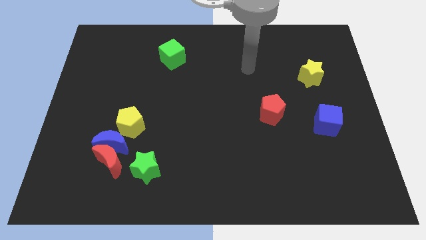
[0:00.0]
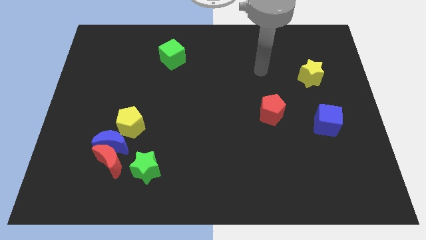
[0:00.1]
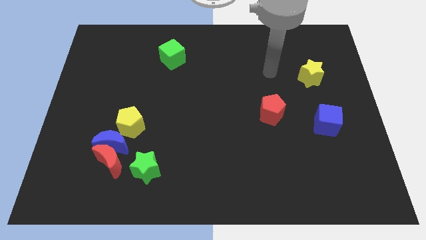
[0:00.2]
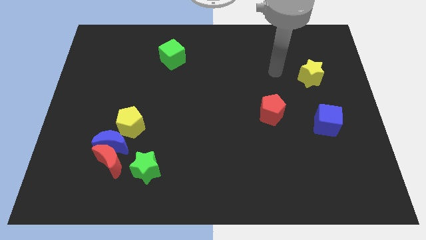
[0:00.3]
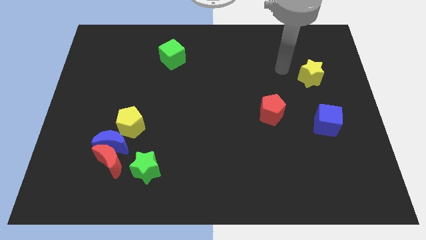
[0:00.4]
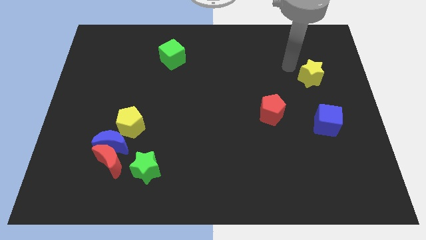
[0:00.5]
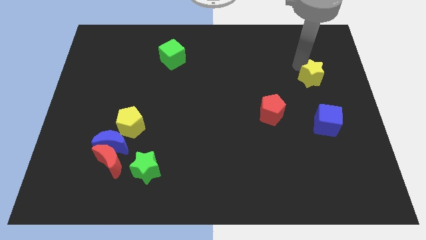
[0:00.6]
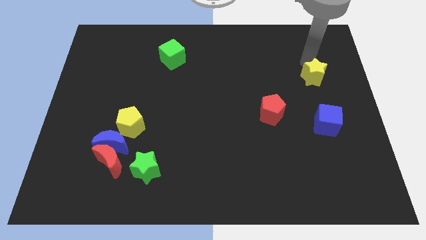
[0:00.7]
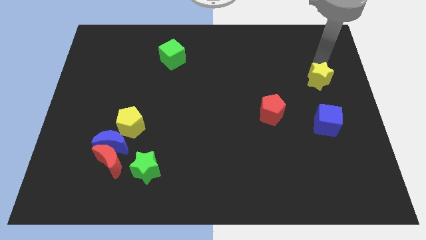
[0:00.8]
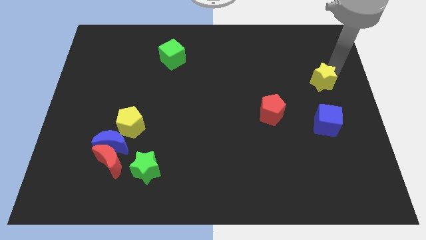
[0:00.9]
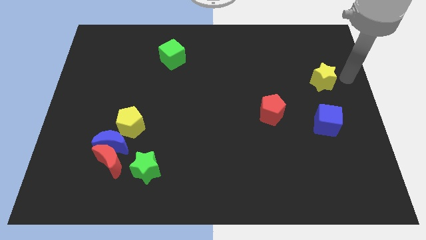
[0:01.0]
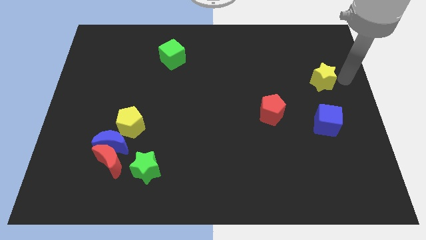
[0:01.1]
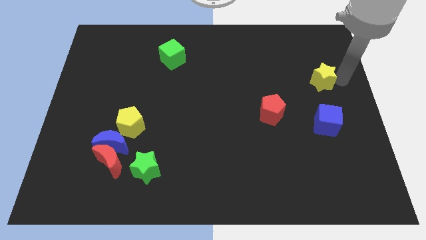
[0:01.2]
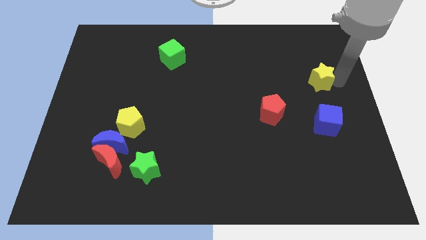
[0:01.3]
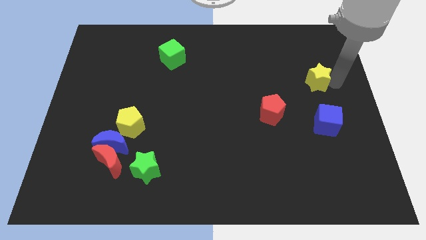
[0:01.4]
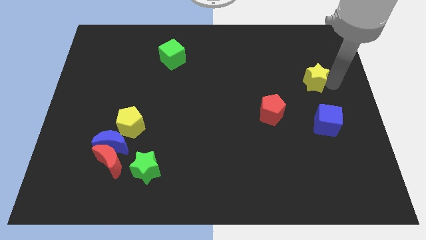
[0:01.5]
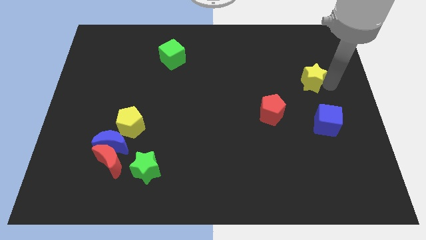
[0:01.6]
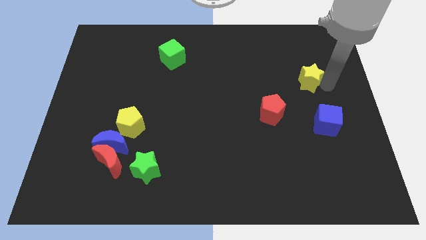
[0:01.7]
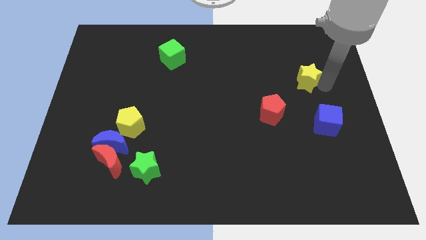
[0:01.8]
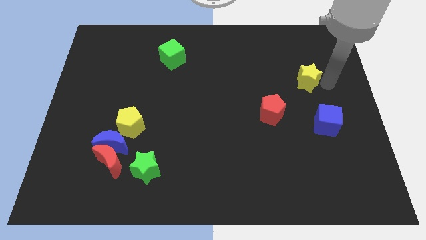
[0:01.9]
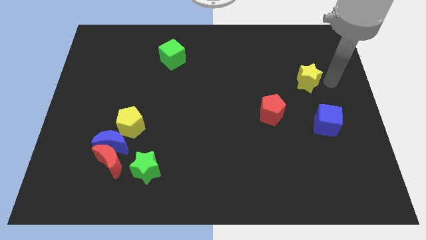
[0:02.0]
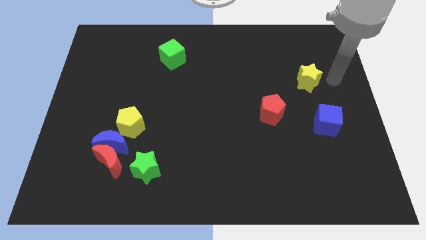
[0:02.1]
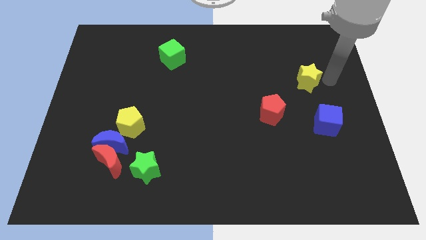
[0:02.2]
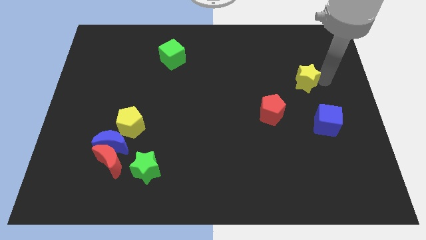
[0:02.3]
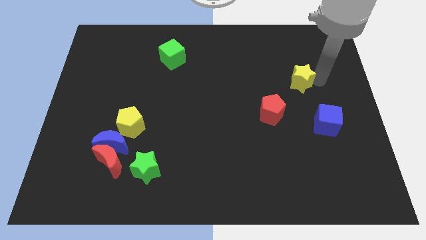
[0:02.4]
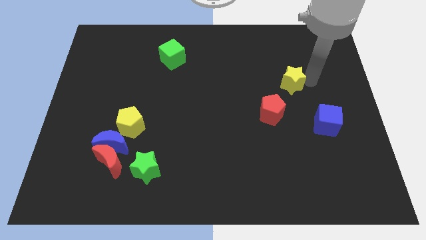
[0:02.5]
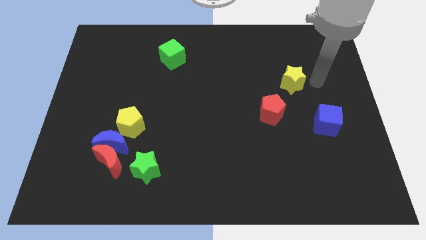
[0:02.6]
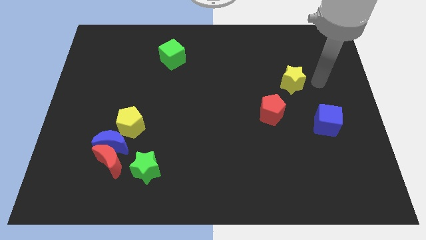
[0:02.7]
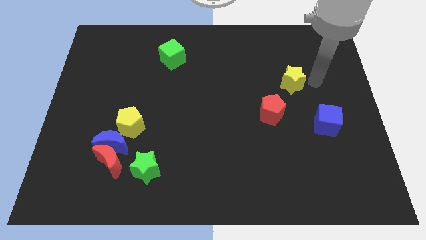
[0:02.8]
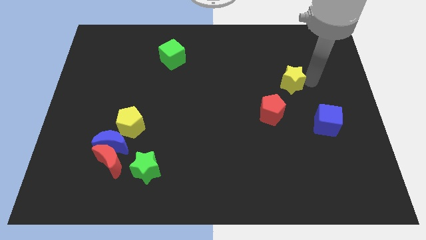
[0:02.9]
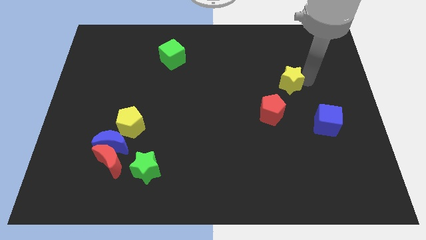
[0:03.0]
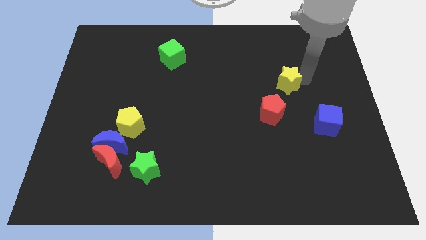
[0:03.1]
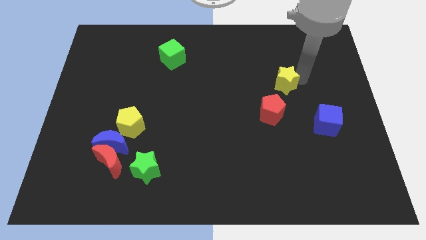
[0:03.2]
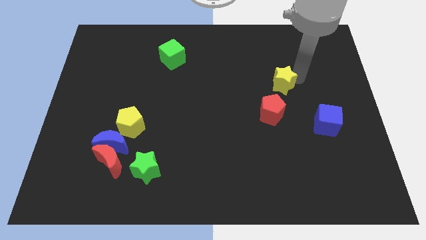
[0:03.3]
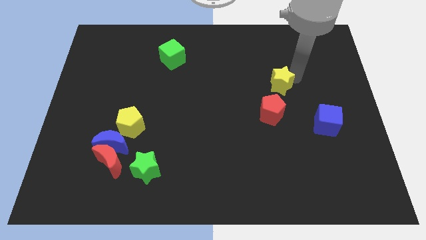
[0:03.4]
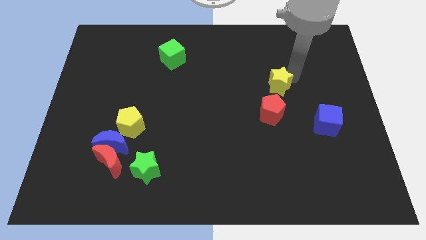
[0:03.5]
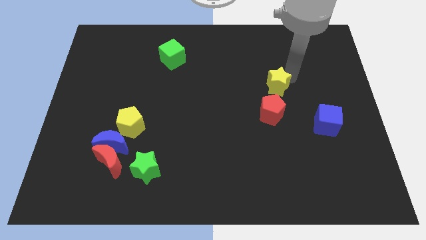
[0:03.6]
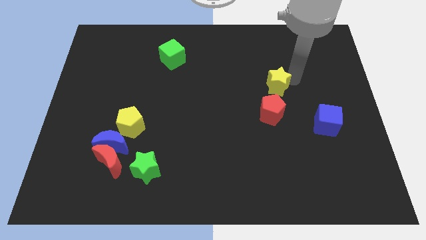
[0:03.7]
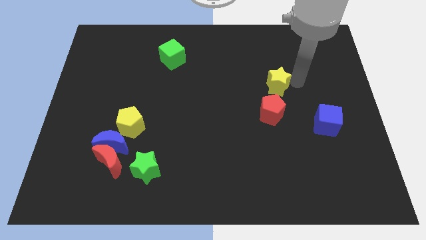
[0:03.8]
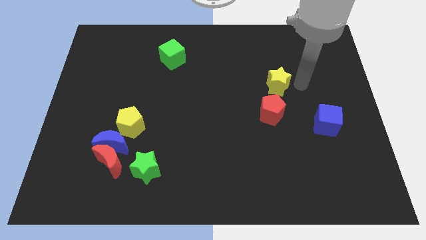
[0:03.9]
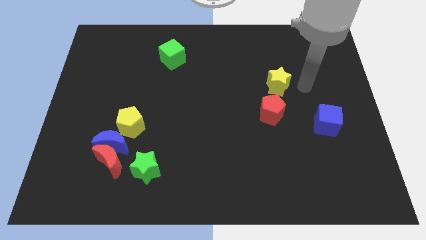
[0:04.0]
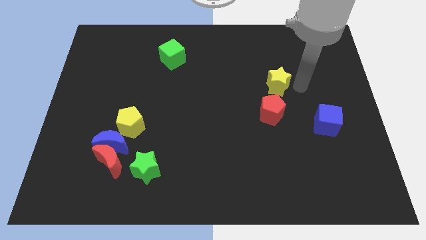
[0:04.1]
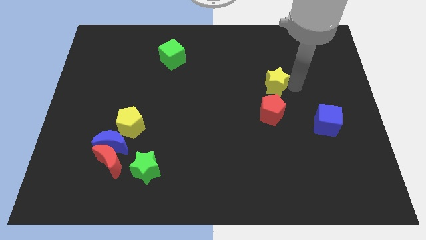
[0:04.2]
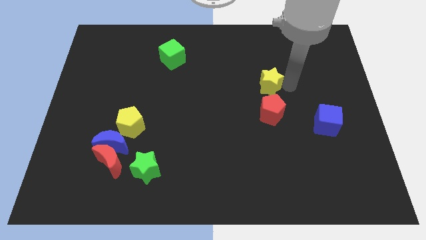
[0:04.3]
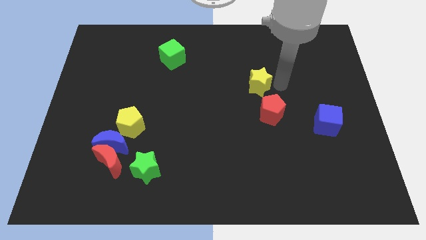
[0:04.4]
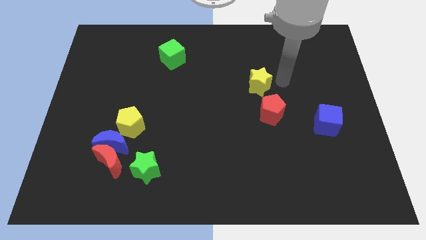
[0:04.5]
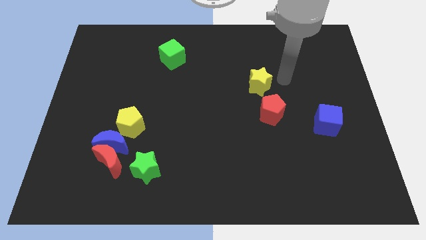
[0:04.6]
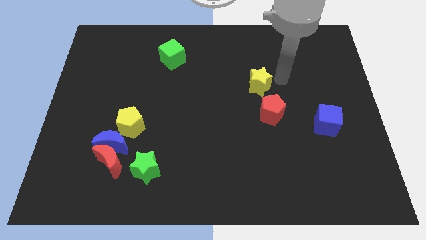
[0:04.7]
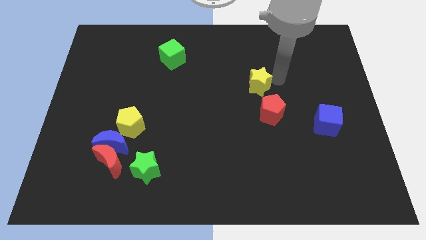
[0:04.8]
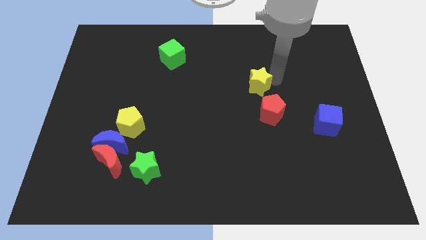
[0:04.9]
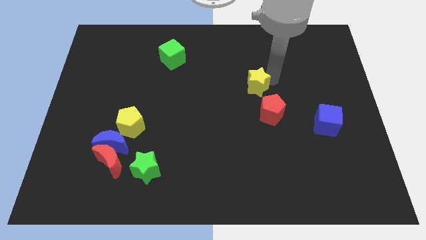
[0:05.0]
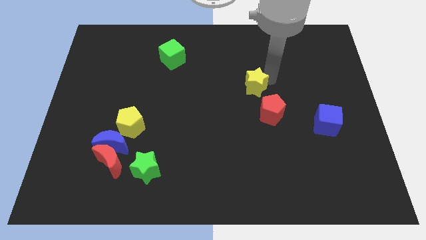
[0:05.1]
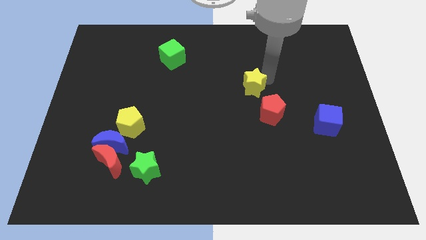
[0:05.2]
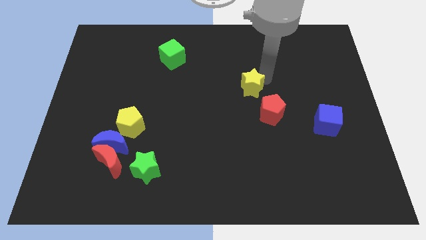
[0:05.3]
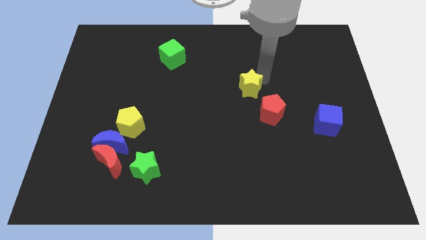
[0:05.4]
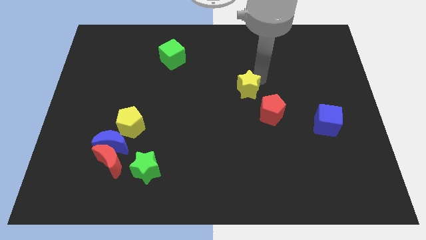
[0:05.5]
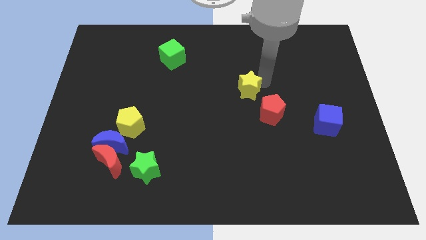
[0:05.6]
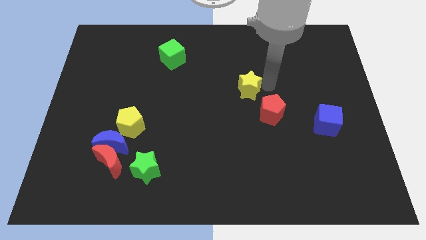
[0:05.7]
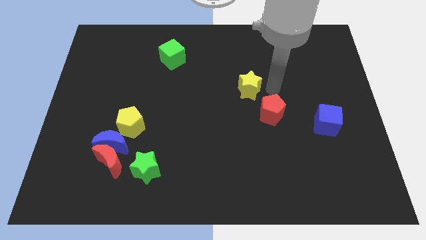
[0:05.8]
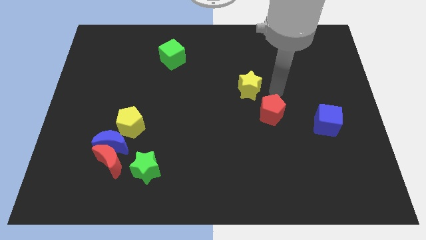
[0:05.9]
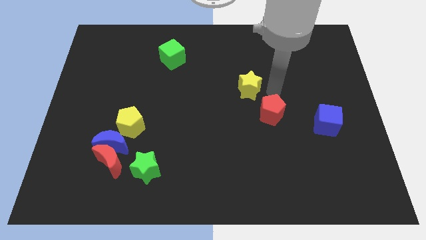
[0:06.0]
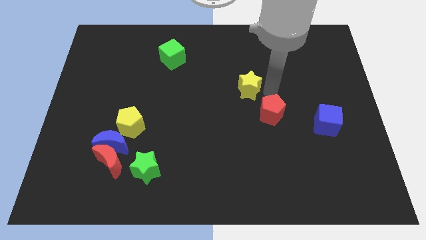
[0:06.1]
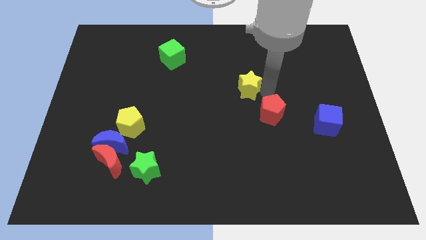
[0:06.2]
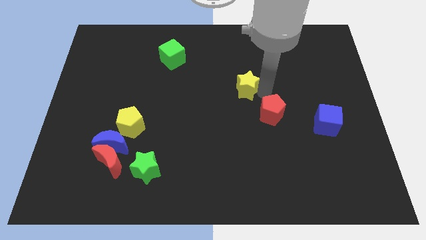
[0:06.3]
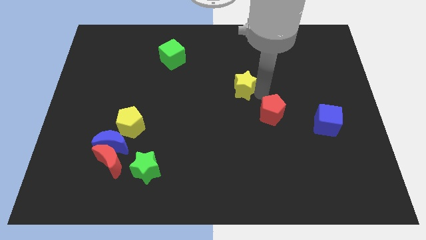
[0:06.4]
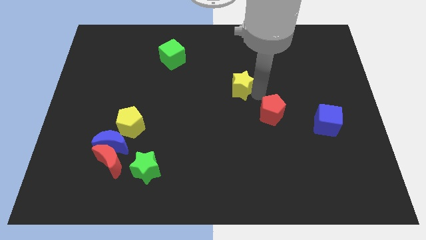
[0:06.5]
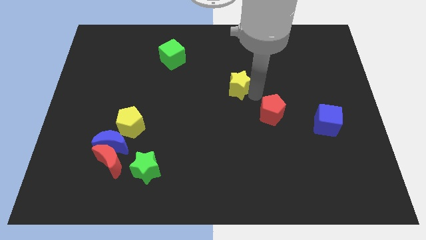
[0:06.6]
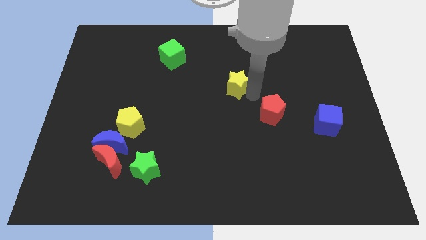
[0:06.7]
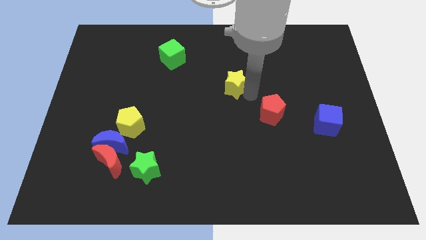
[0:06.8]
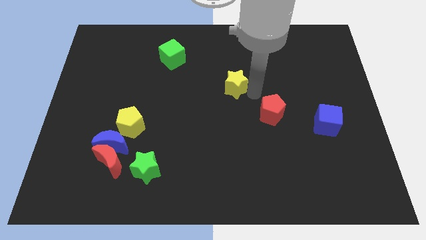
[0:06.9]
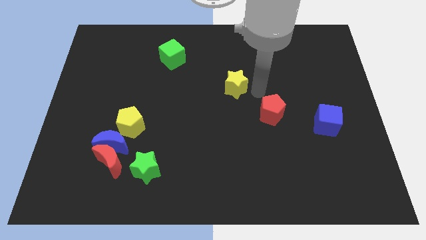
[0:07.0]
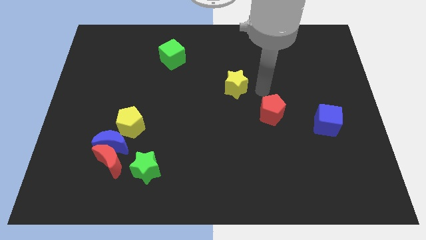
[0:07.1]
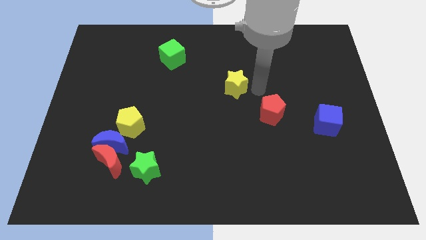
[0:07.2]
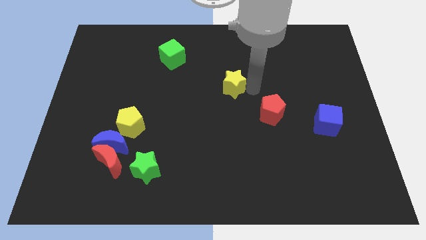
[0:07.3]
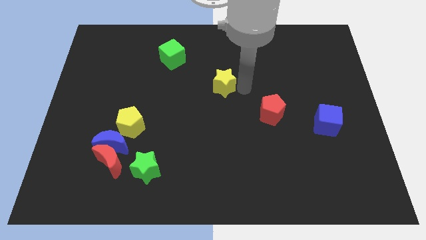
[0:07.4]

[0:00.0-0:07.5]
move the yellow star left

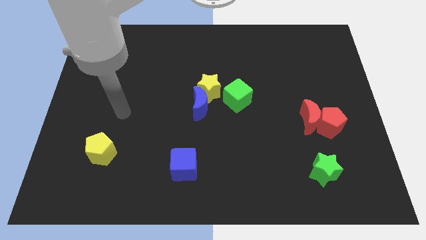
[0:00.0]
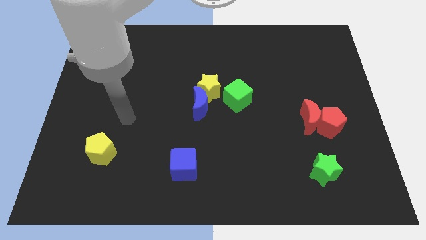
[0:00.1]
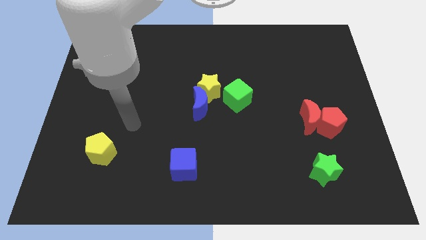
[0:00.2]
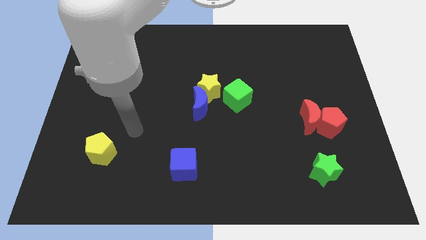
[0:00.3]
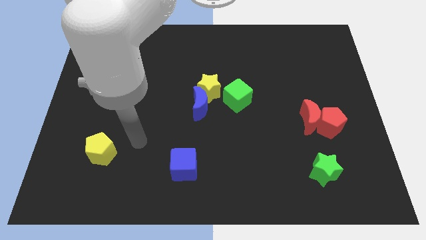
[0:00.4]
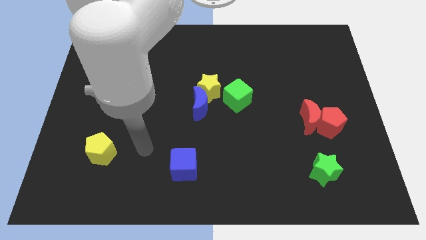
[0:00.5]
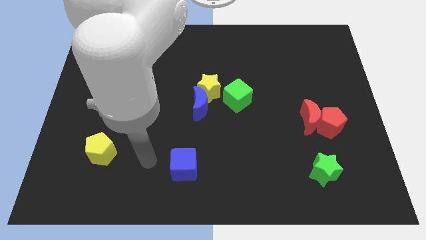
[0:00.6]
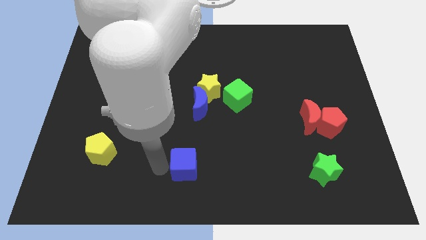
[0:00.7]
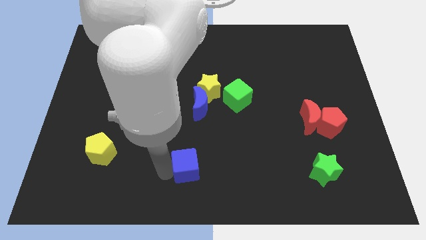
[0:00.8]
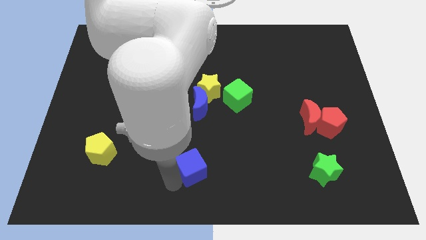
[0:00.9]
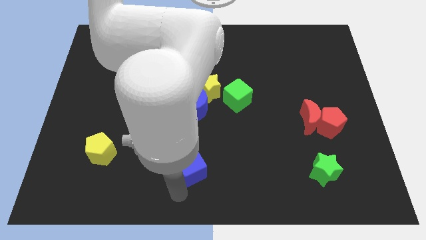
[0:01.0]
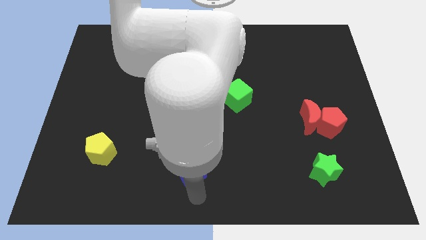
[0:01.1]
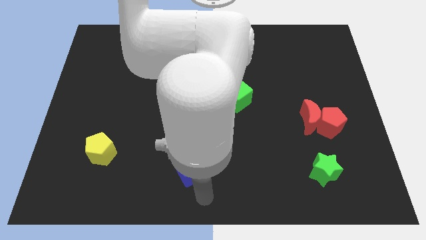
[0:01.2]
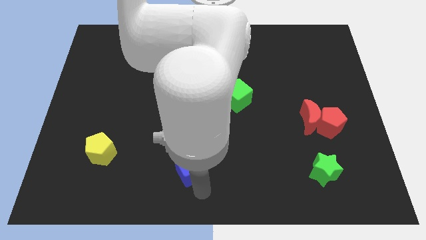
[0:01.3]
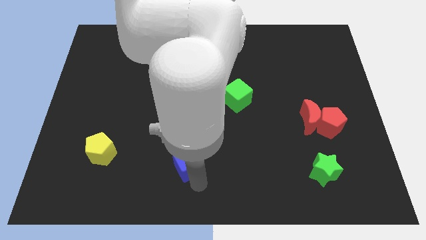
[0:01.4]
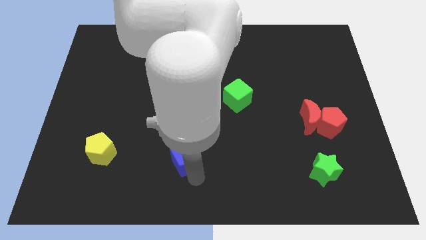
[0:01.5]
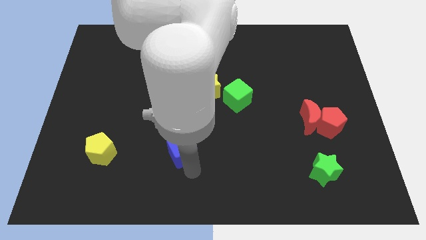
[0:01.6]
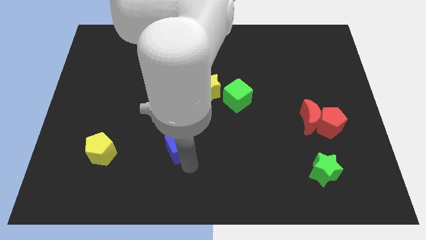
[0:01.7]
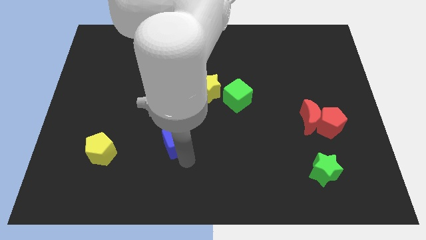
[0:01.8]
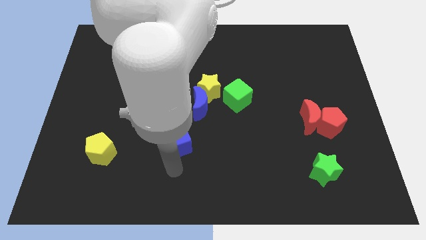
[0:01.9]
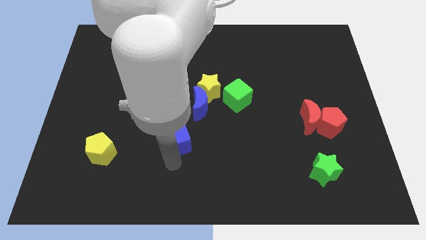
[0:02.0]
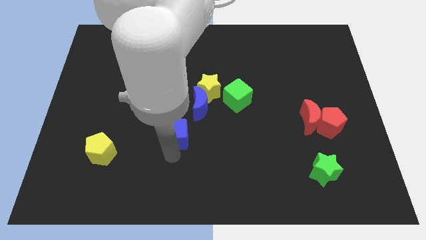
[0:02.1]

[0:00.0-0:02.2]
slightly move the blue cube up
